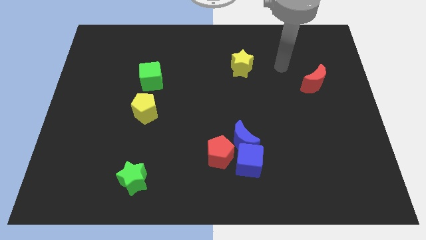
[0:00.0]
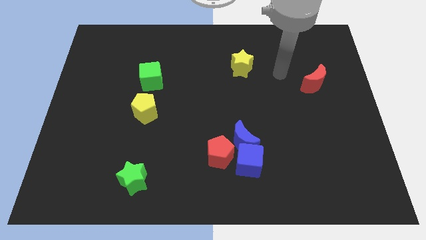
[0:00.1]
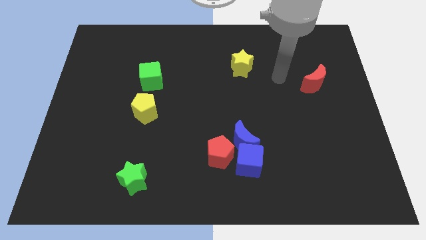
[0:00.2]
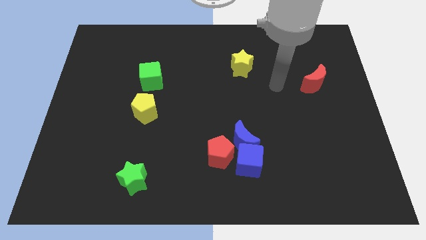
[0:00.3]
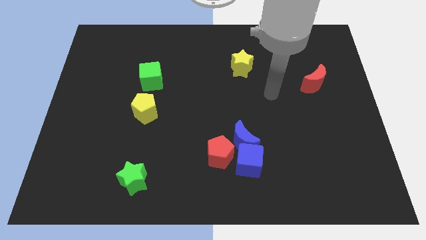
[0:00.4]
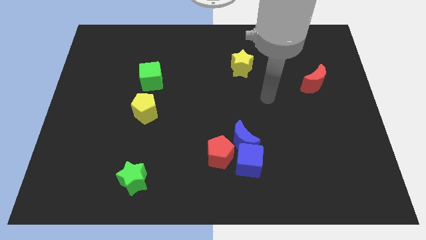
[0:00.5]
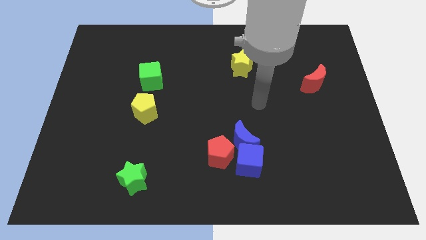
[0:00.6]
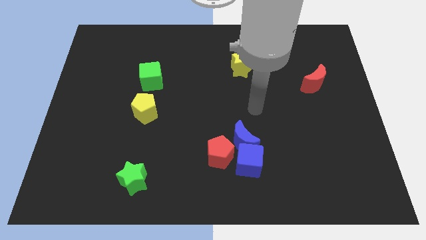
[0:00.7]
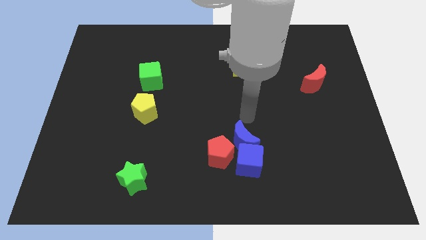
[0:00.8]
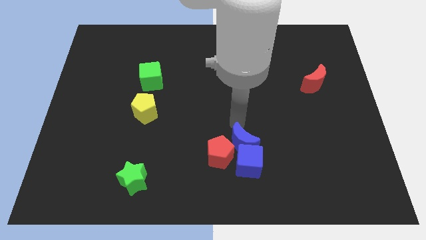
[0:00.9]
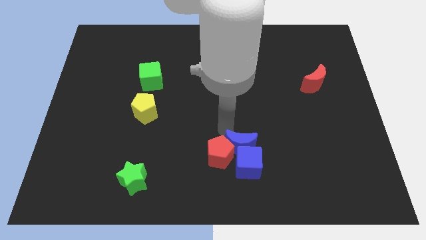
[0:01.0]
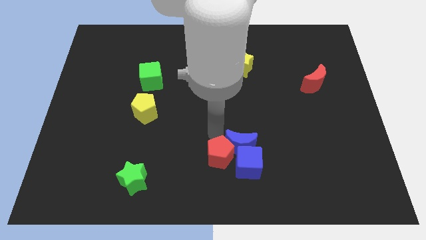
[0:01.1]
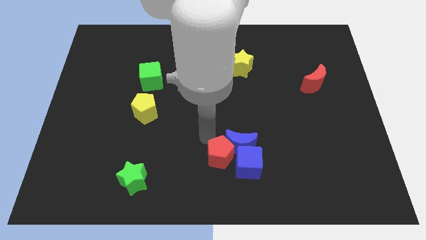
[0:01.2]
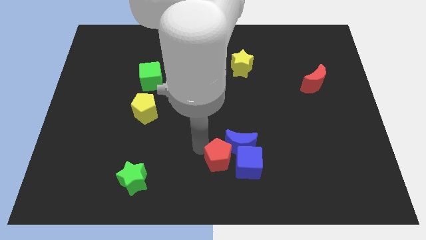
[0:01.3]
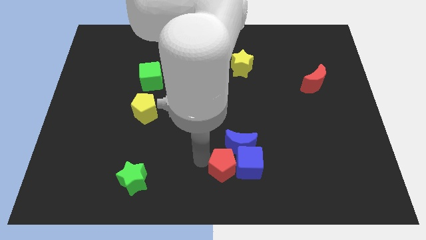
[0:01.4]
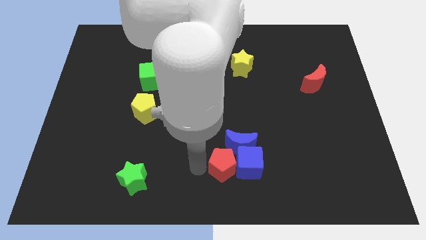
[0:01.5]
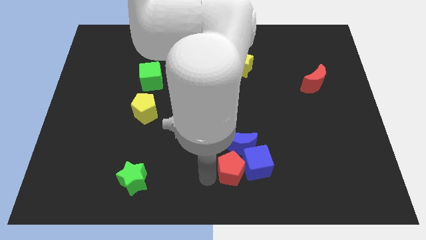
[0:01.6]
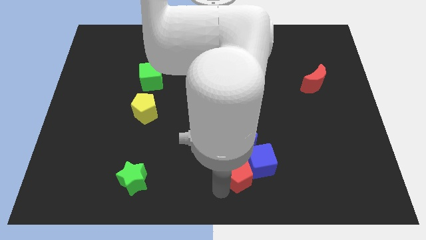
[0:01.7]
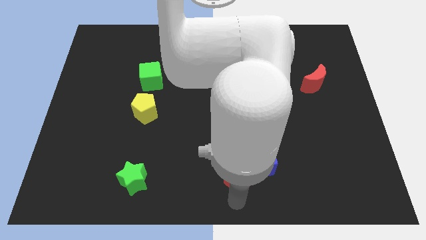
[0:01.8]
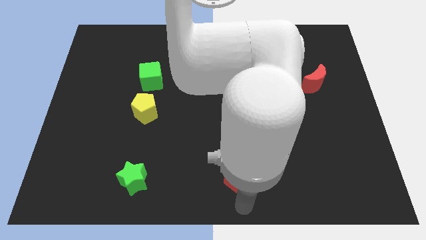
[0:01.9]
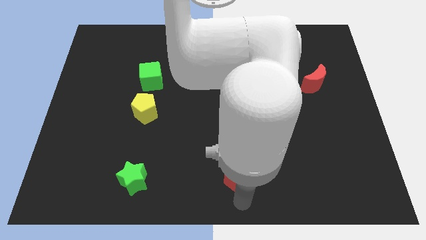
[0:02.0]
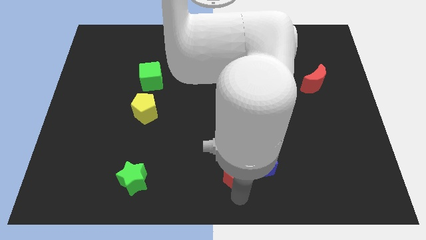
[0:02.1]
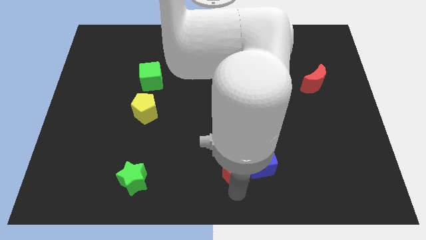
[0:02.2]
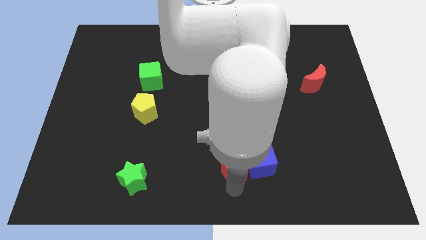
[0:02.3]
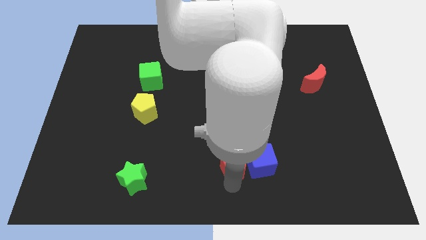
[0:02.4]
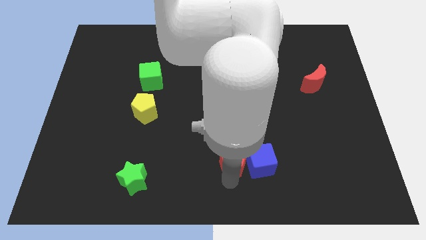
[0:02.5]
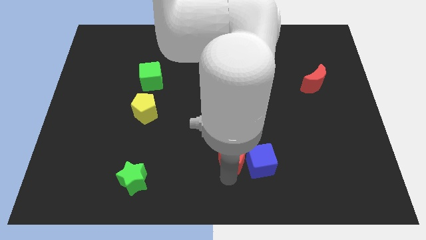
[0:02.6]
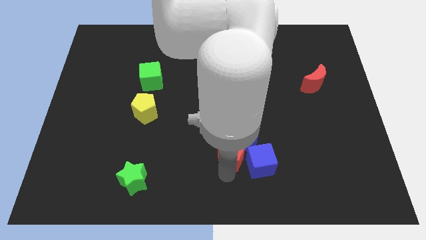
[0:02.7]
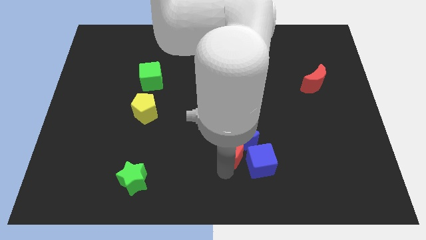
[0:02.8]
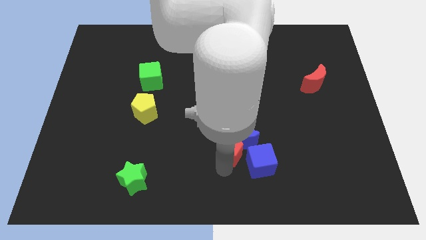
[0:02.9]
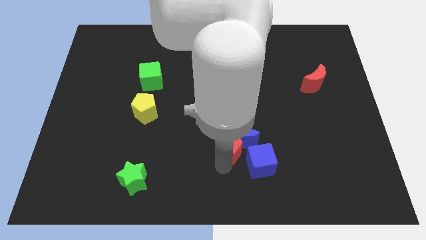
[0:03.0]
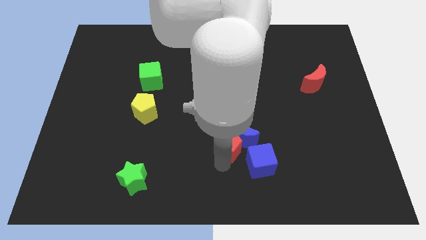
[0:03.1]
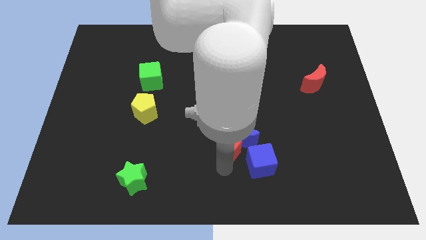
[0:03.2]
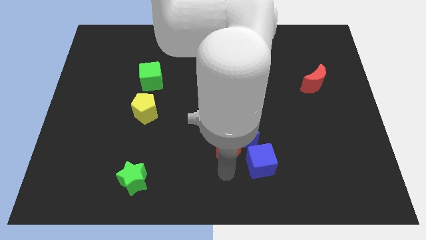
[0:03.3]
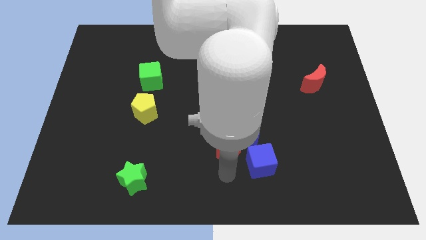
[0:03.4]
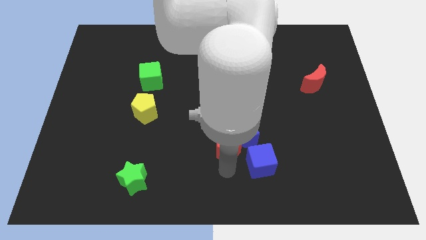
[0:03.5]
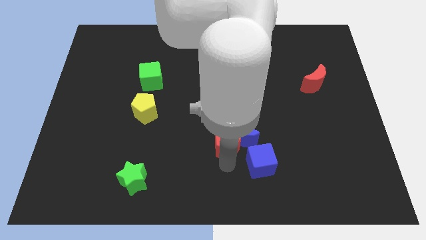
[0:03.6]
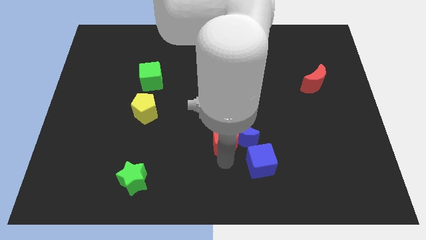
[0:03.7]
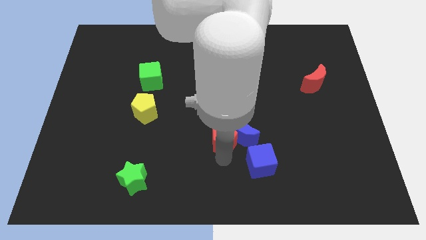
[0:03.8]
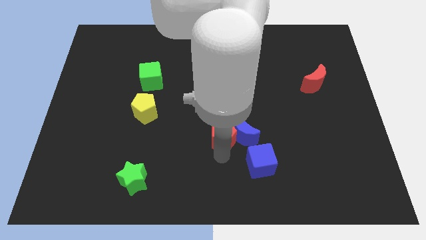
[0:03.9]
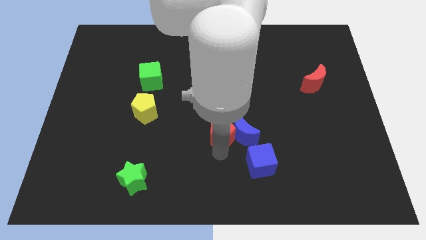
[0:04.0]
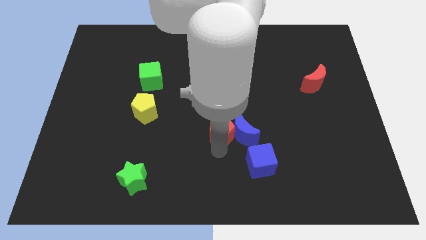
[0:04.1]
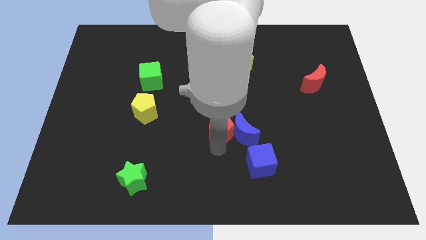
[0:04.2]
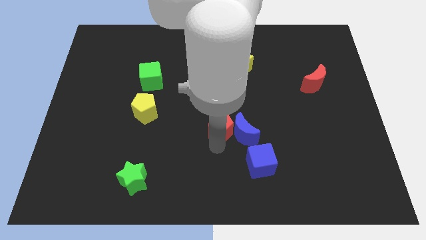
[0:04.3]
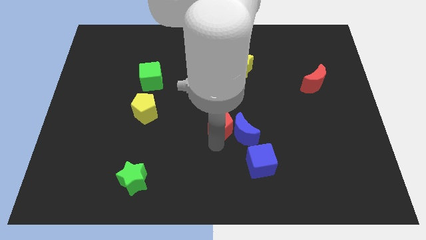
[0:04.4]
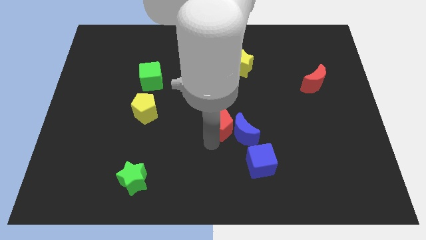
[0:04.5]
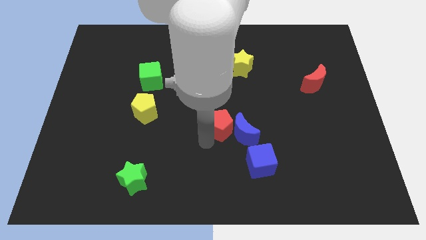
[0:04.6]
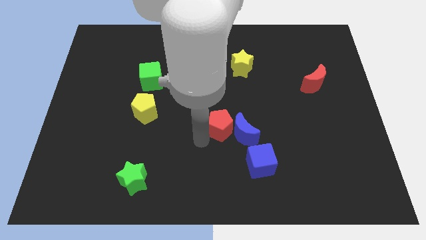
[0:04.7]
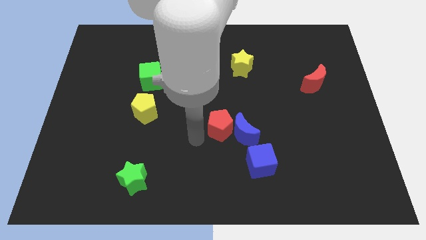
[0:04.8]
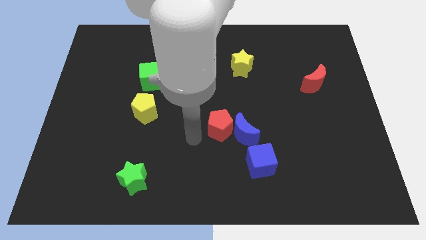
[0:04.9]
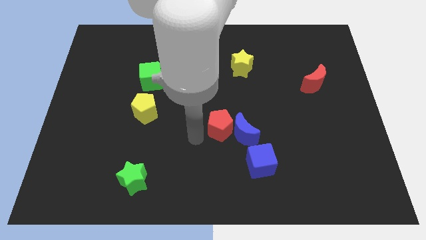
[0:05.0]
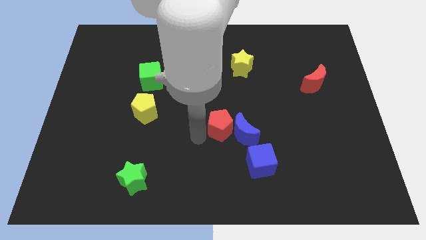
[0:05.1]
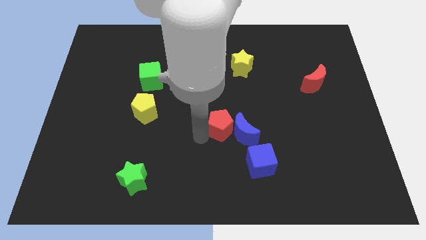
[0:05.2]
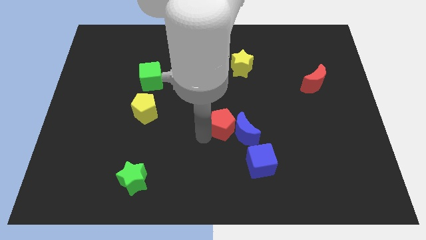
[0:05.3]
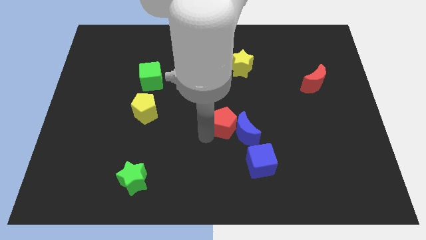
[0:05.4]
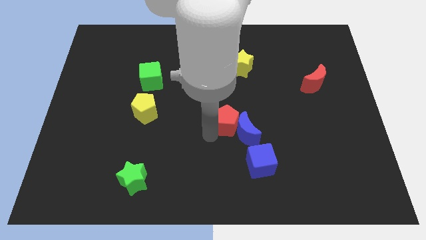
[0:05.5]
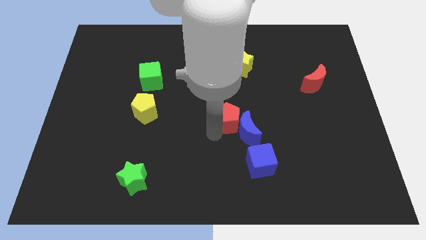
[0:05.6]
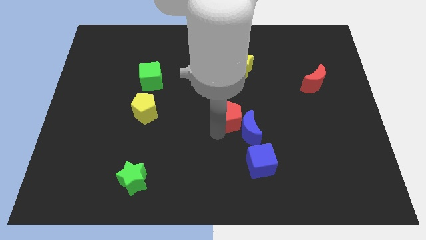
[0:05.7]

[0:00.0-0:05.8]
push the red pentagon somewhat up and then to the right

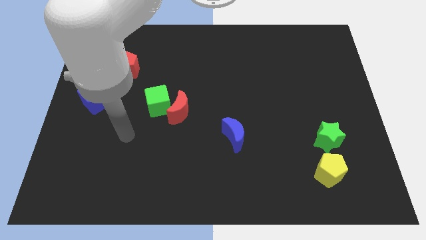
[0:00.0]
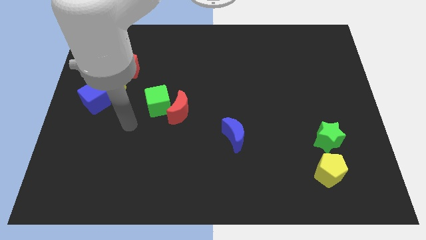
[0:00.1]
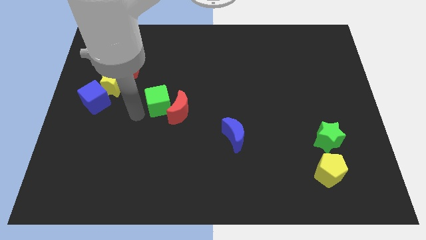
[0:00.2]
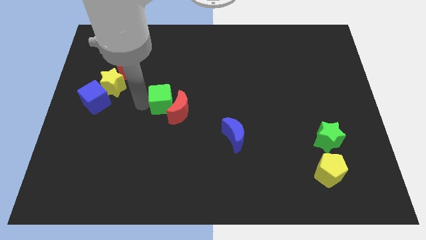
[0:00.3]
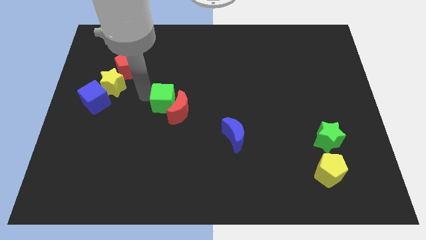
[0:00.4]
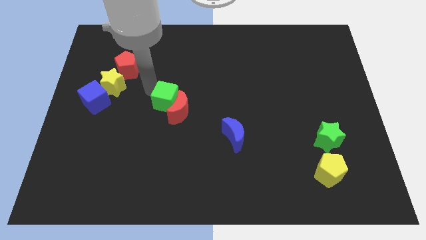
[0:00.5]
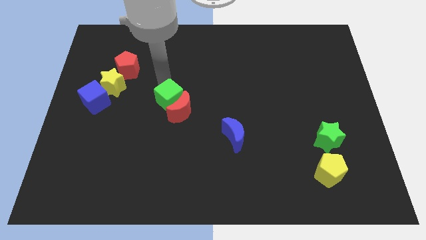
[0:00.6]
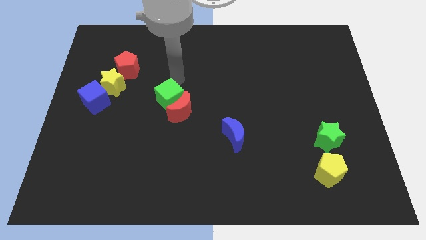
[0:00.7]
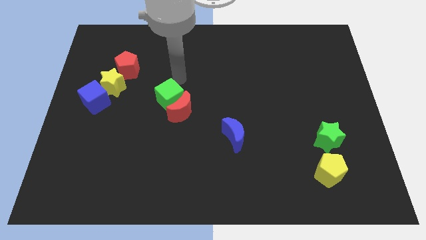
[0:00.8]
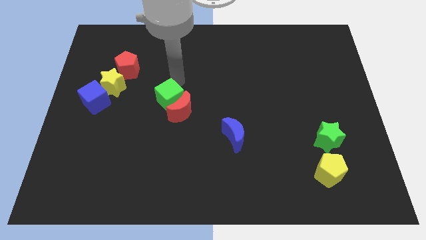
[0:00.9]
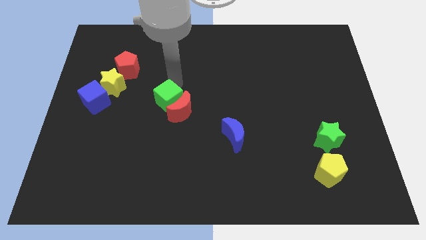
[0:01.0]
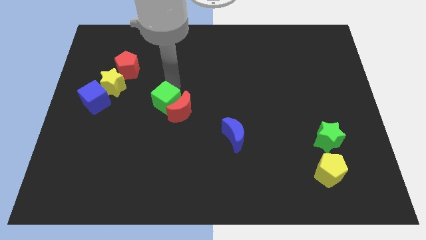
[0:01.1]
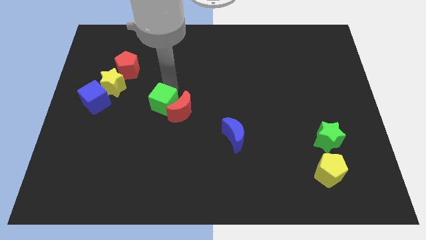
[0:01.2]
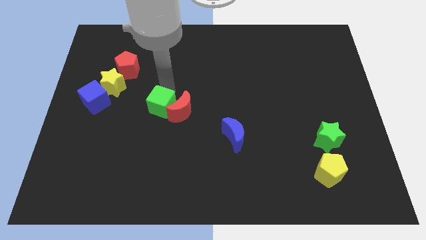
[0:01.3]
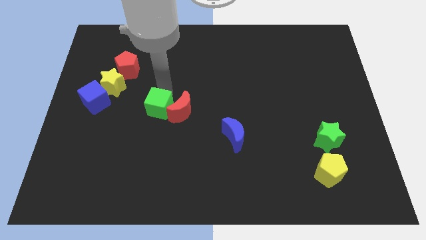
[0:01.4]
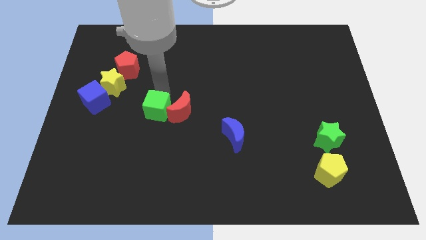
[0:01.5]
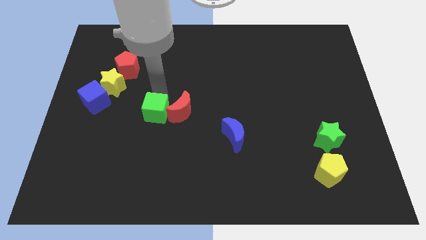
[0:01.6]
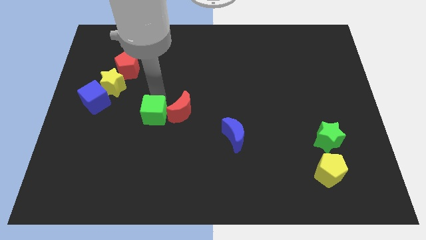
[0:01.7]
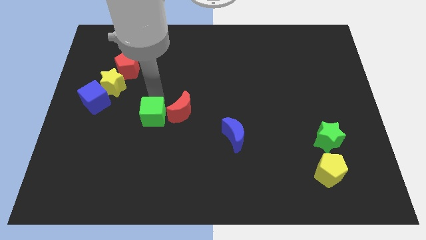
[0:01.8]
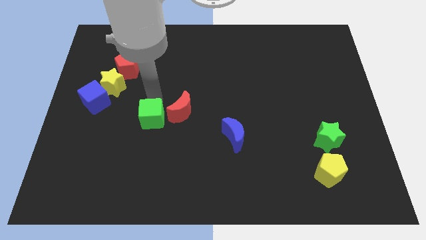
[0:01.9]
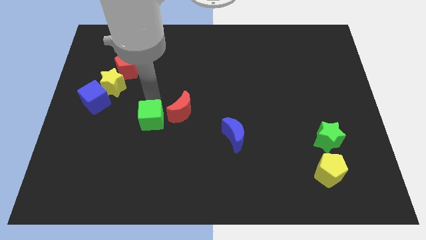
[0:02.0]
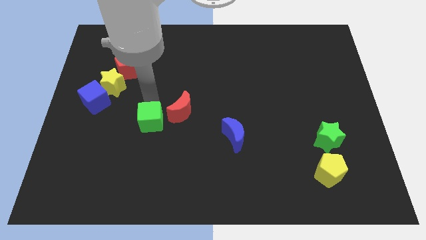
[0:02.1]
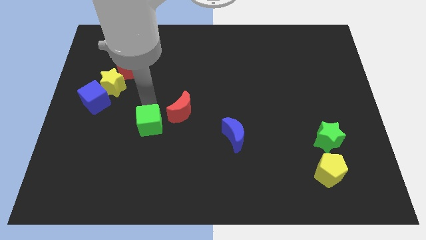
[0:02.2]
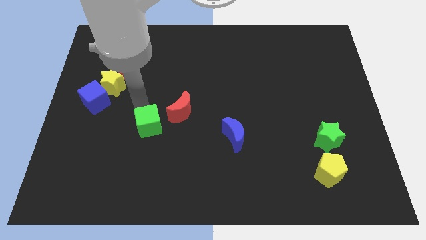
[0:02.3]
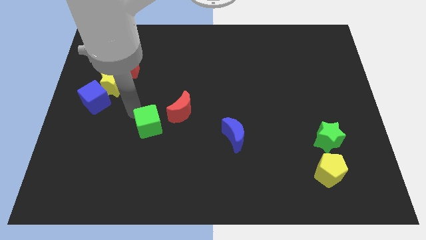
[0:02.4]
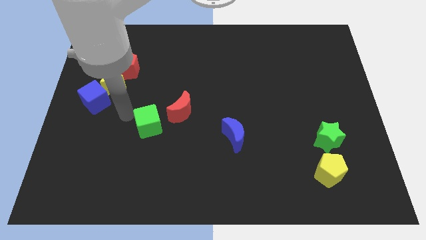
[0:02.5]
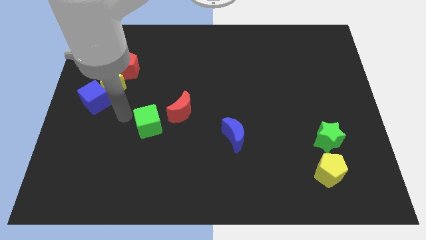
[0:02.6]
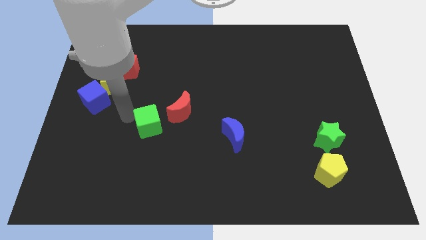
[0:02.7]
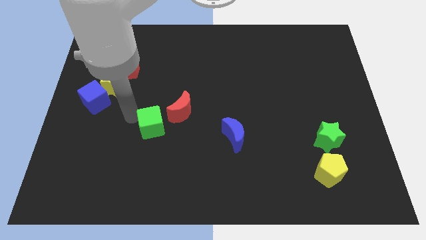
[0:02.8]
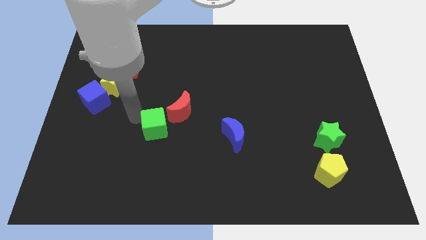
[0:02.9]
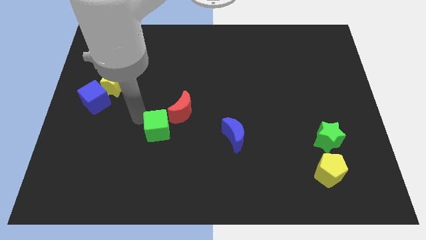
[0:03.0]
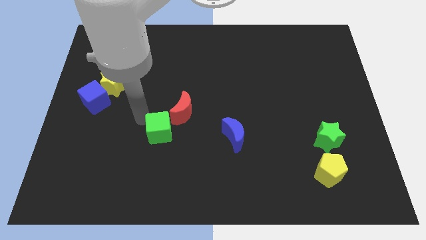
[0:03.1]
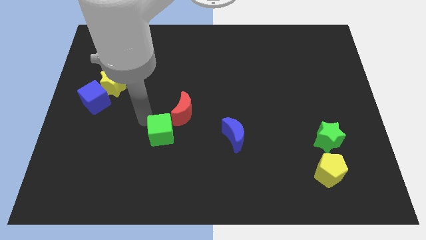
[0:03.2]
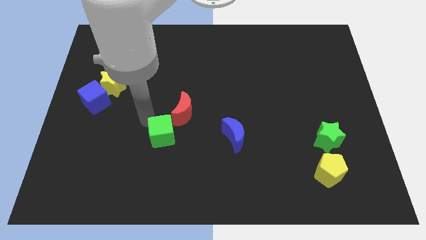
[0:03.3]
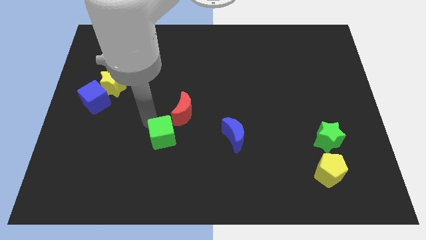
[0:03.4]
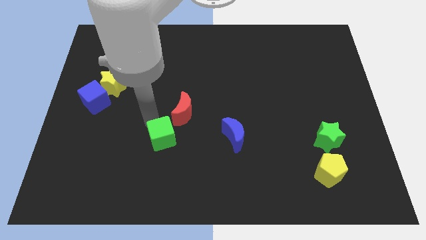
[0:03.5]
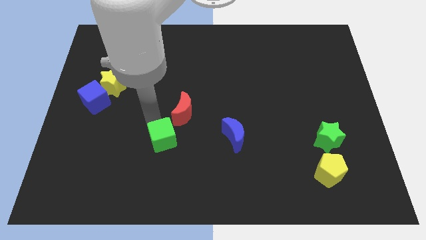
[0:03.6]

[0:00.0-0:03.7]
slide the green cube down and right diagonally a little
